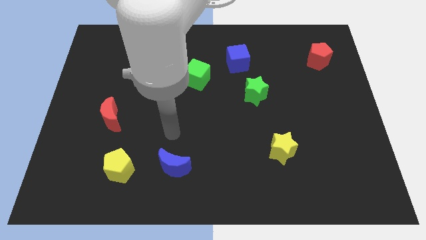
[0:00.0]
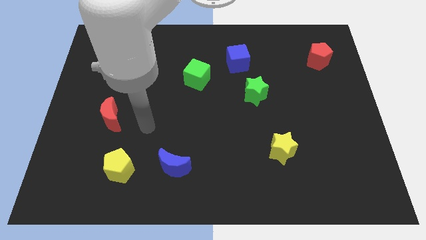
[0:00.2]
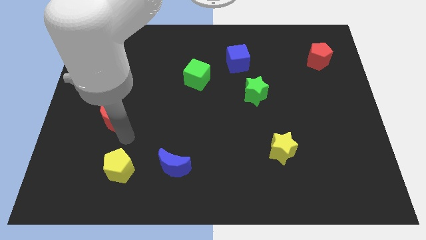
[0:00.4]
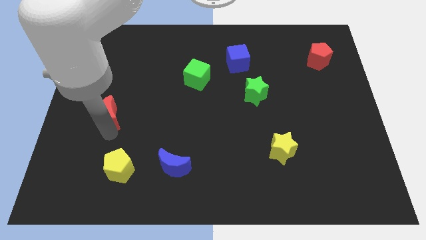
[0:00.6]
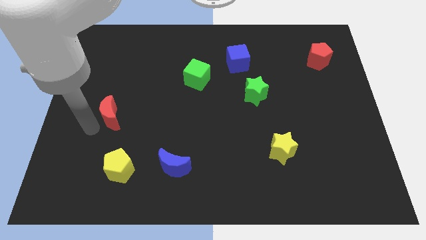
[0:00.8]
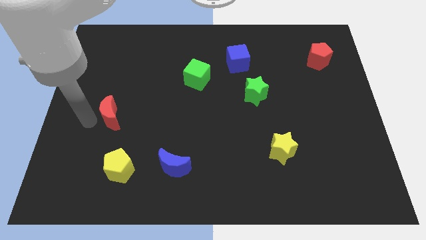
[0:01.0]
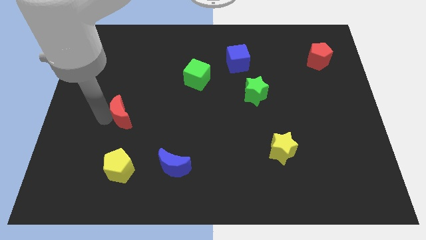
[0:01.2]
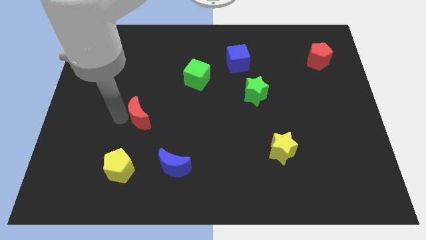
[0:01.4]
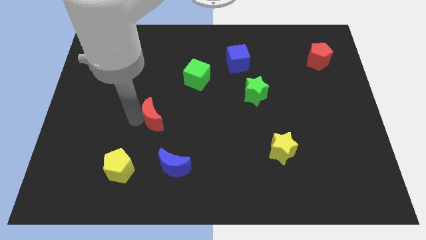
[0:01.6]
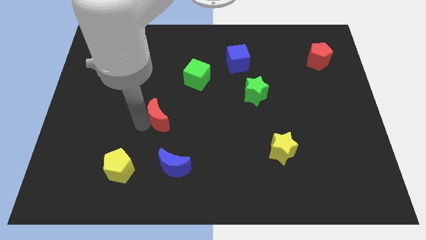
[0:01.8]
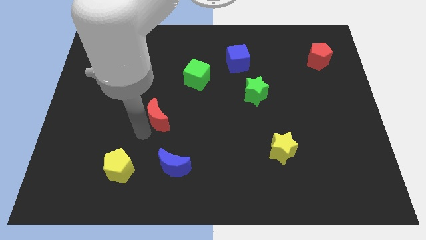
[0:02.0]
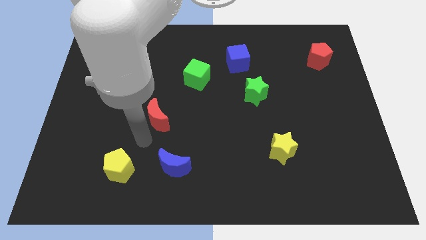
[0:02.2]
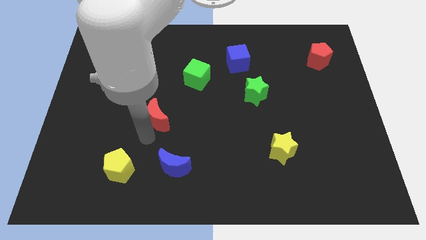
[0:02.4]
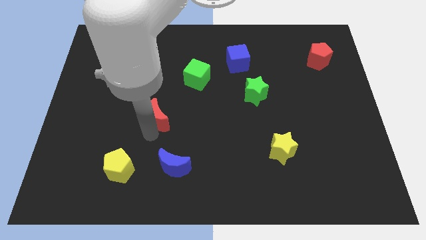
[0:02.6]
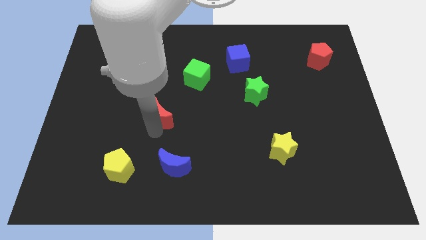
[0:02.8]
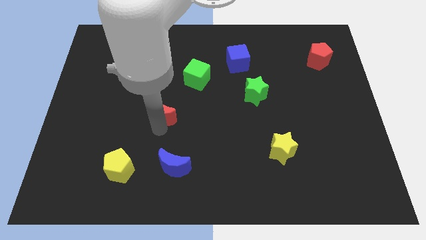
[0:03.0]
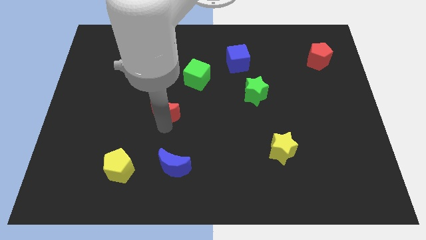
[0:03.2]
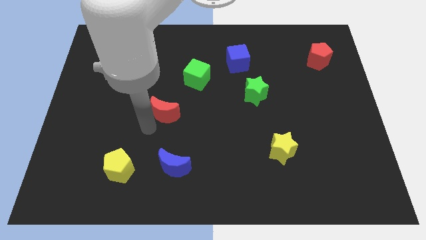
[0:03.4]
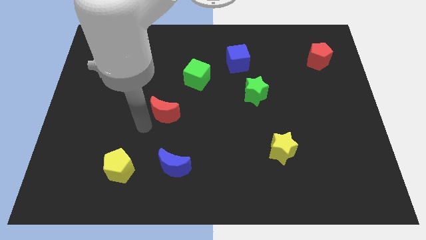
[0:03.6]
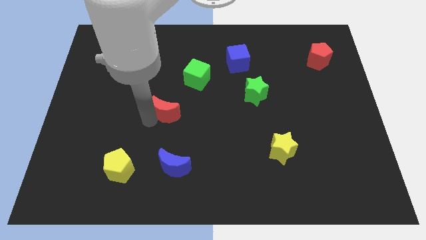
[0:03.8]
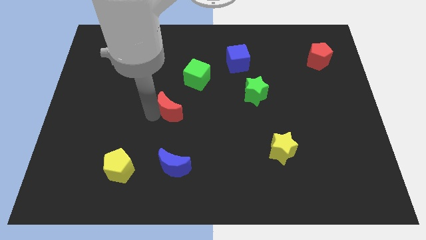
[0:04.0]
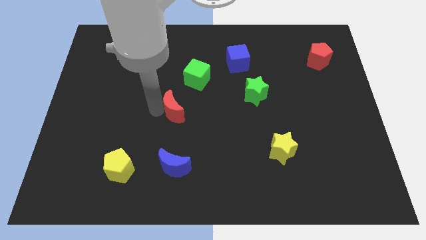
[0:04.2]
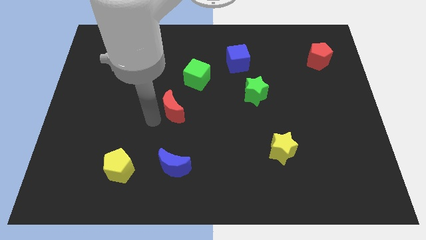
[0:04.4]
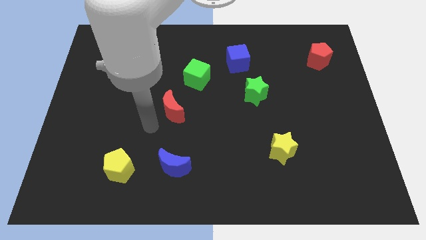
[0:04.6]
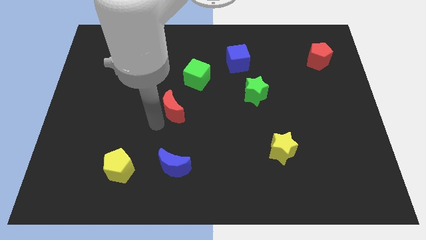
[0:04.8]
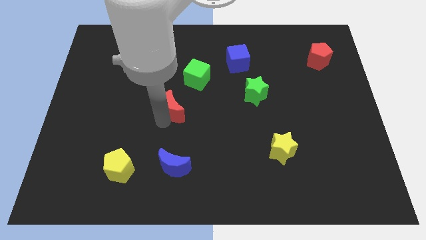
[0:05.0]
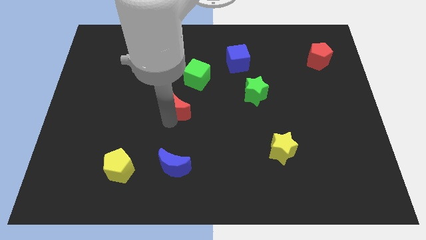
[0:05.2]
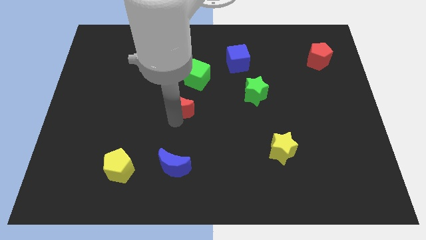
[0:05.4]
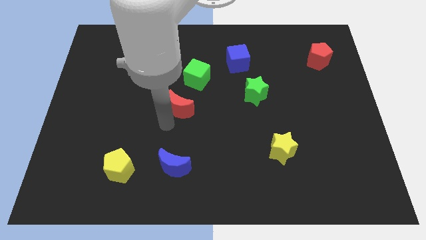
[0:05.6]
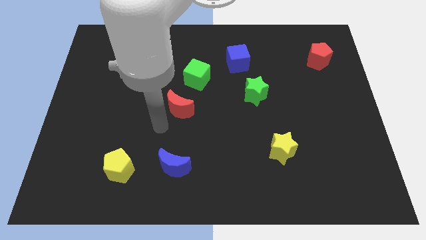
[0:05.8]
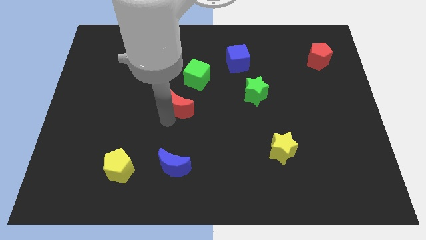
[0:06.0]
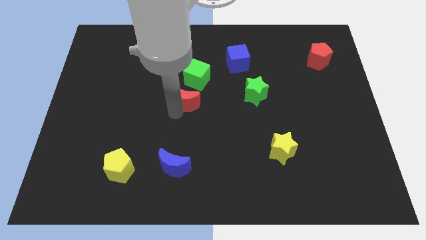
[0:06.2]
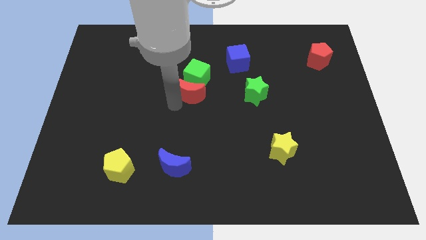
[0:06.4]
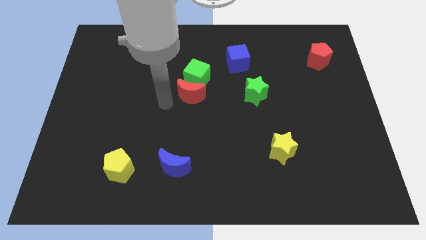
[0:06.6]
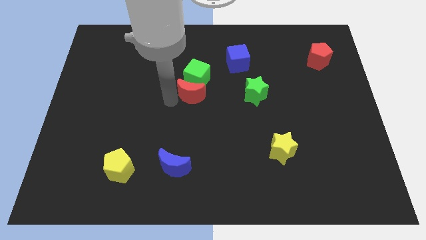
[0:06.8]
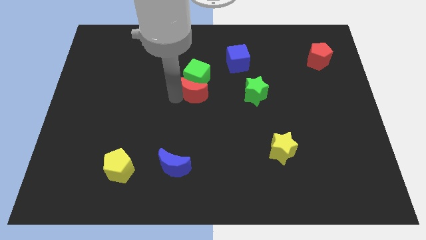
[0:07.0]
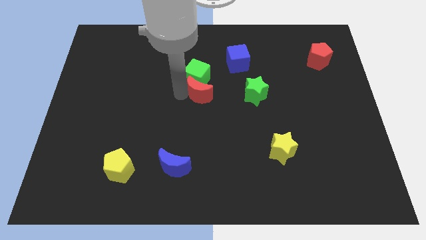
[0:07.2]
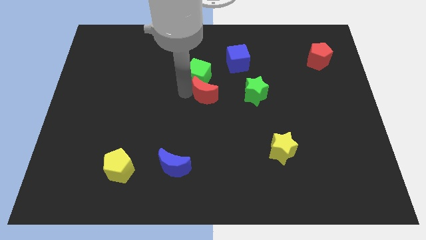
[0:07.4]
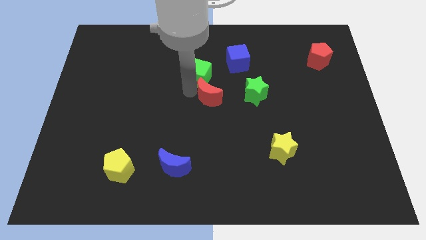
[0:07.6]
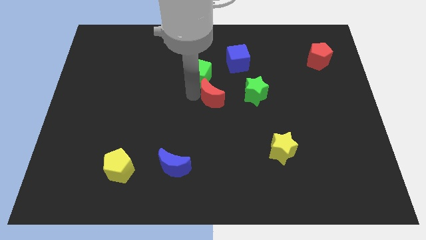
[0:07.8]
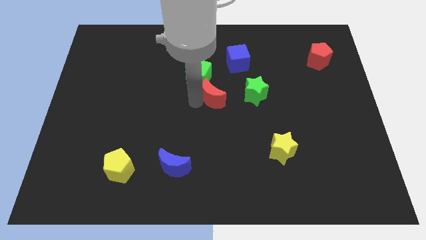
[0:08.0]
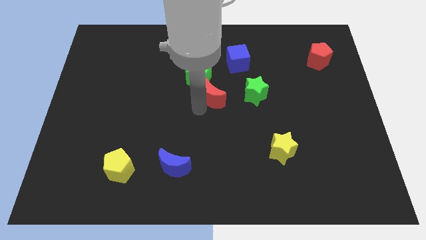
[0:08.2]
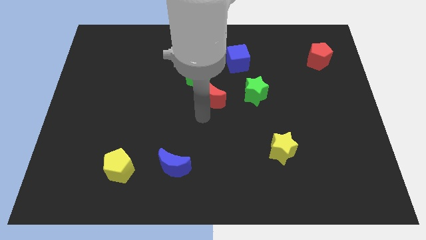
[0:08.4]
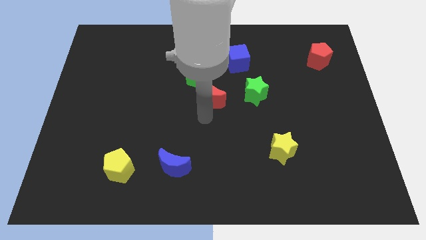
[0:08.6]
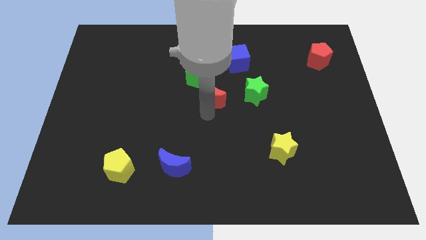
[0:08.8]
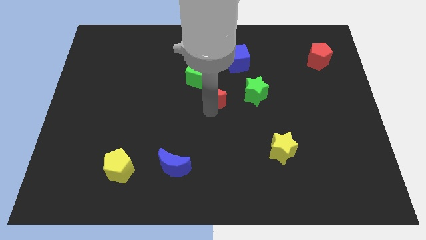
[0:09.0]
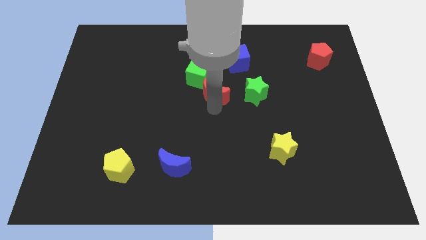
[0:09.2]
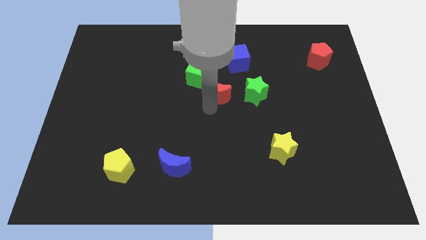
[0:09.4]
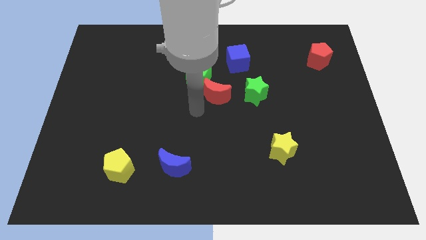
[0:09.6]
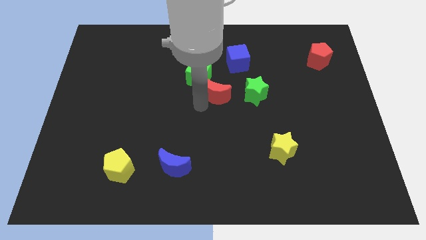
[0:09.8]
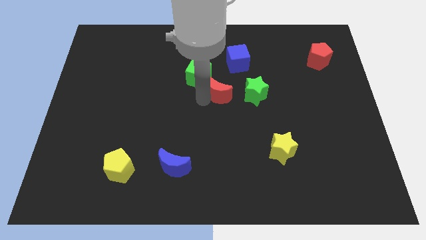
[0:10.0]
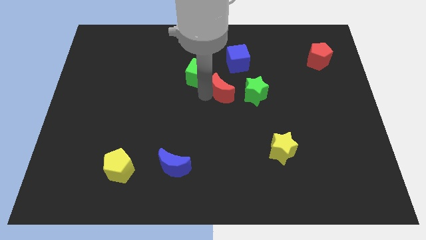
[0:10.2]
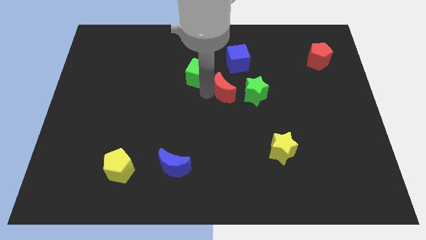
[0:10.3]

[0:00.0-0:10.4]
move the red moon to the right side of the green cube

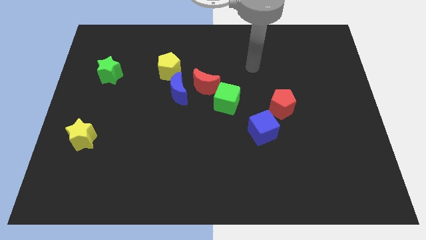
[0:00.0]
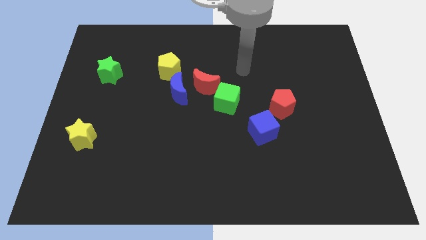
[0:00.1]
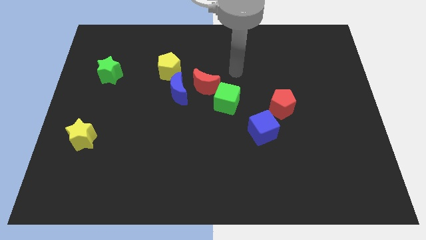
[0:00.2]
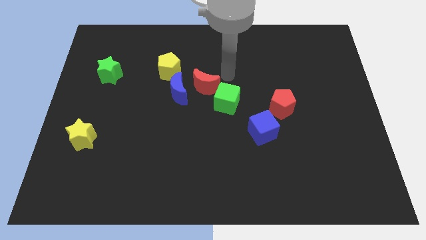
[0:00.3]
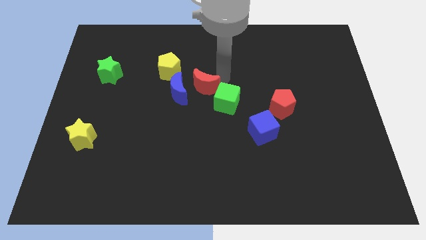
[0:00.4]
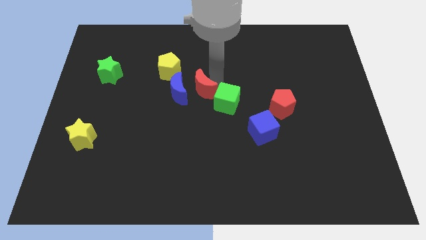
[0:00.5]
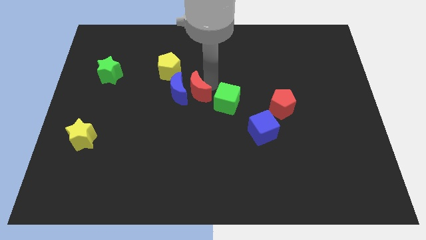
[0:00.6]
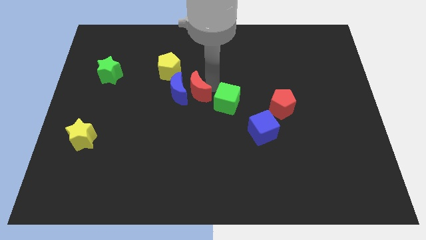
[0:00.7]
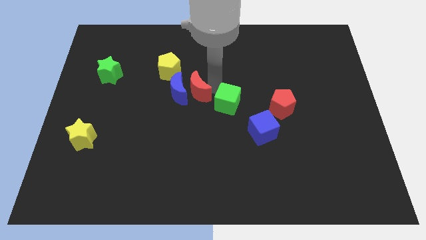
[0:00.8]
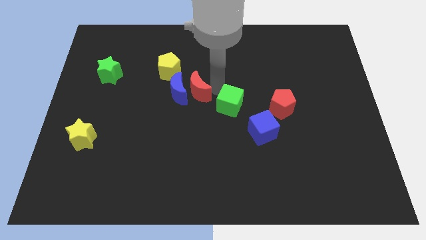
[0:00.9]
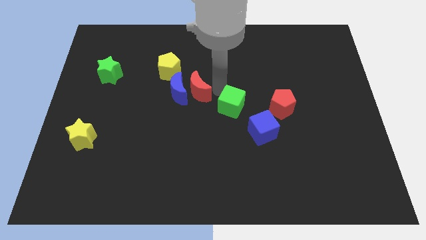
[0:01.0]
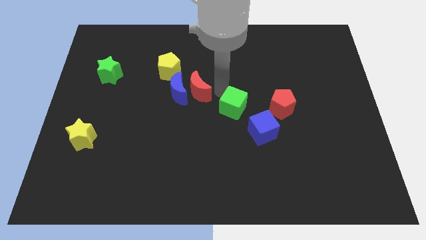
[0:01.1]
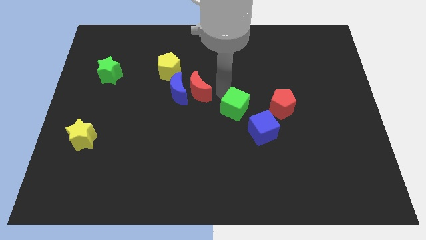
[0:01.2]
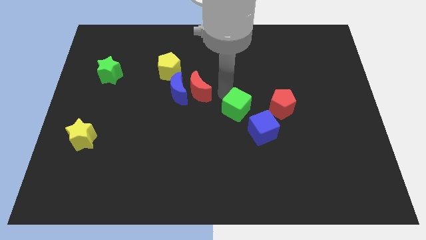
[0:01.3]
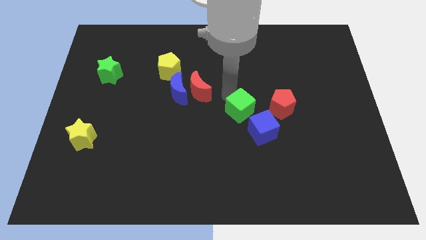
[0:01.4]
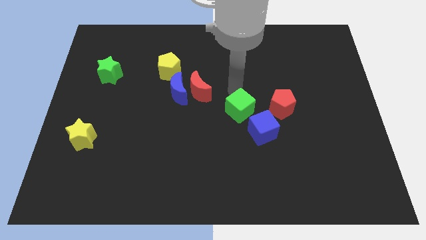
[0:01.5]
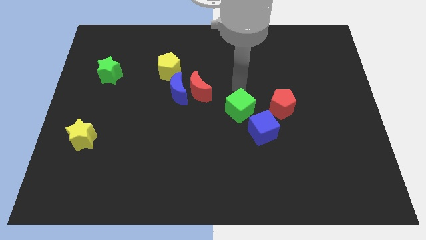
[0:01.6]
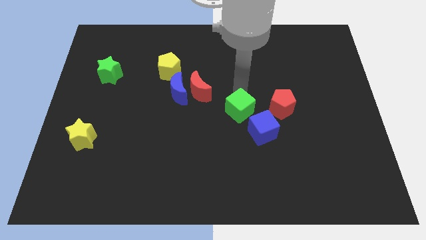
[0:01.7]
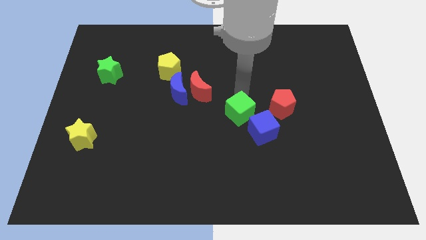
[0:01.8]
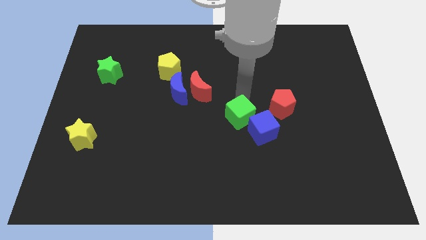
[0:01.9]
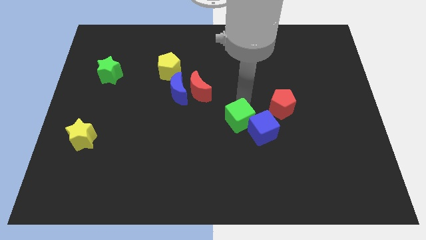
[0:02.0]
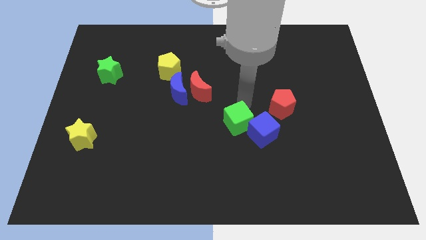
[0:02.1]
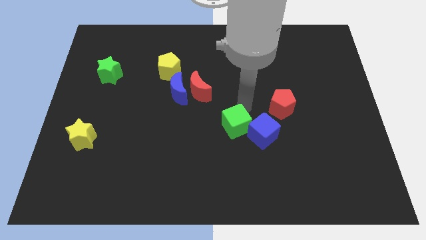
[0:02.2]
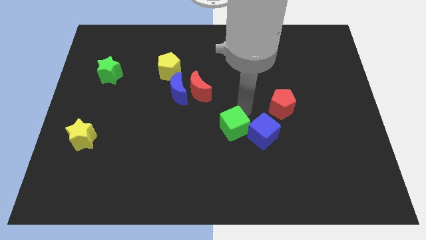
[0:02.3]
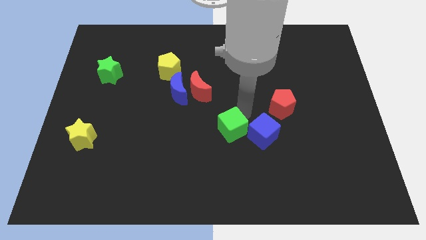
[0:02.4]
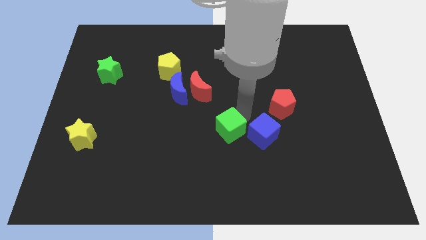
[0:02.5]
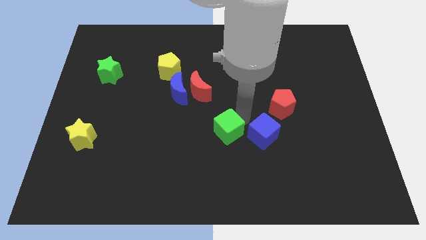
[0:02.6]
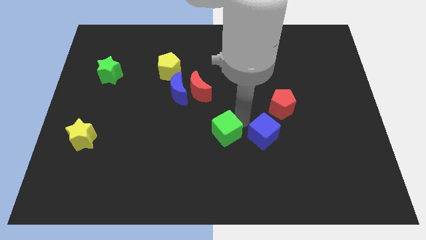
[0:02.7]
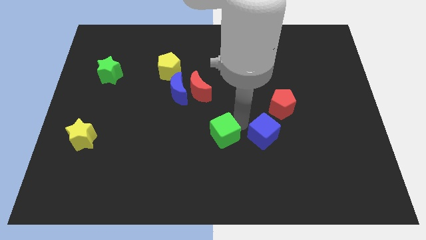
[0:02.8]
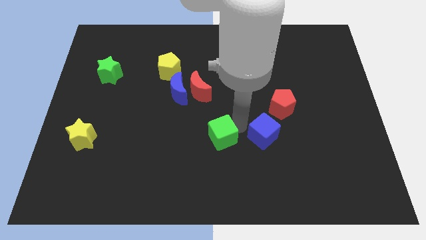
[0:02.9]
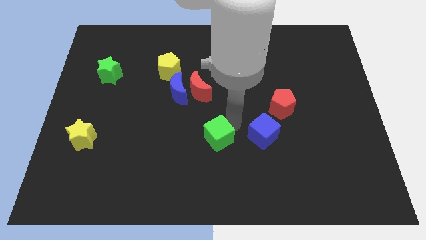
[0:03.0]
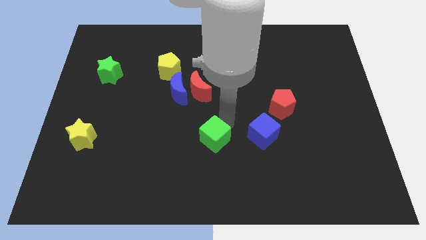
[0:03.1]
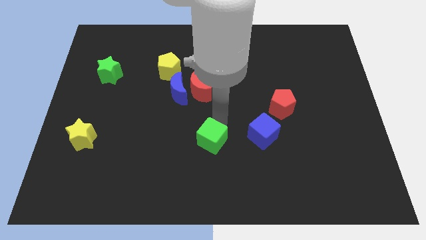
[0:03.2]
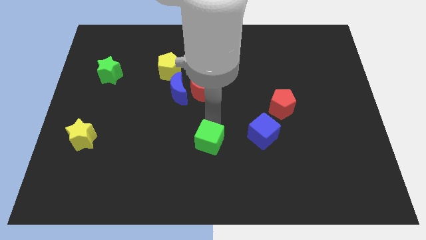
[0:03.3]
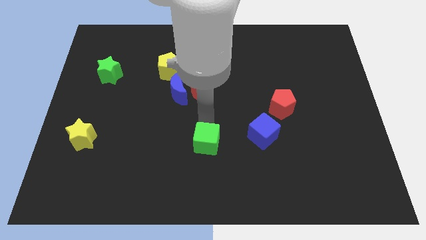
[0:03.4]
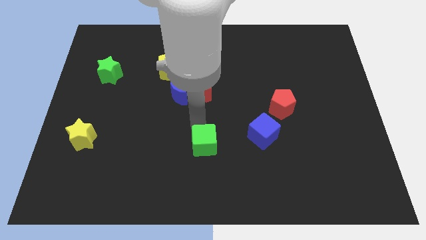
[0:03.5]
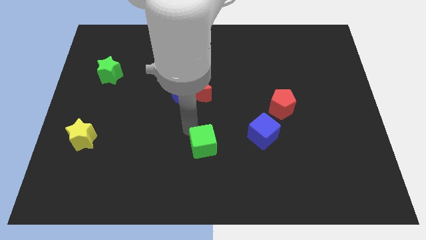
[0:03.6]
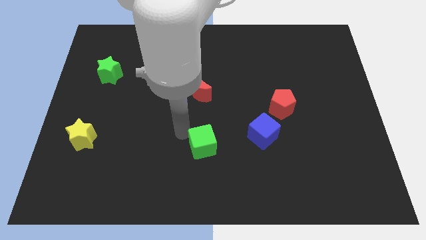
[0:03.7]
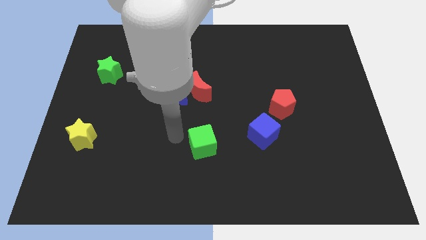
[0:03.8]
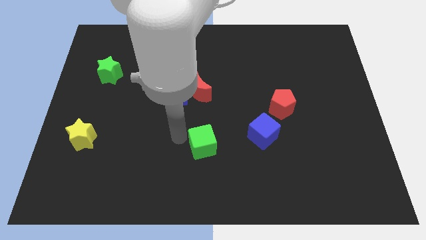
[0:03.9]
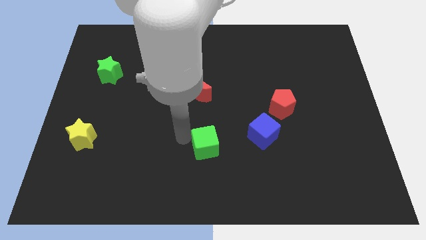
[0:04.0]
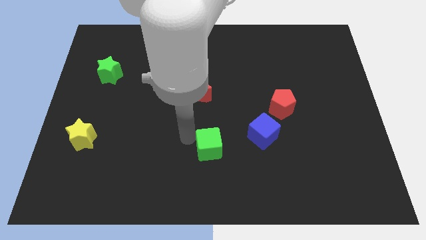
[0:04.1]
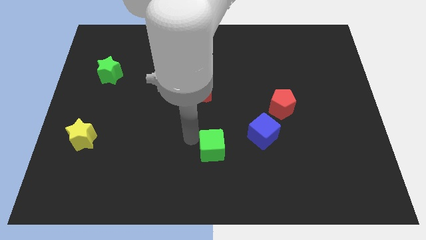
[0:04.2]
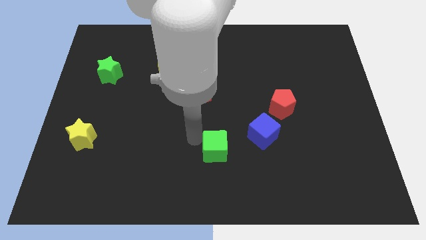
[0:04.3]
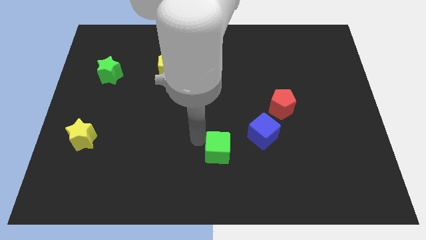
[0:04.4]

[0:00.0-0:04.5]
put the green cube to the bottom left side of the blue cube
